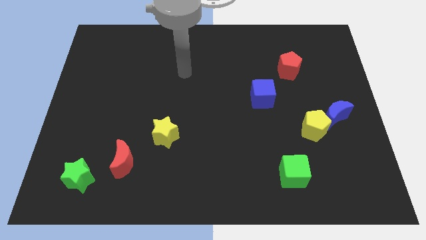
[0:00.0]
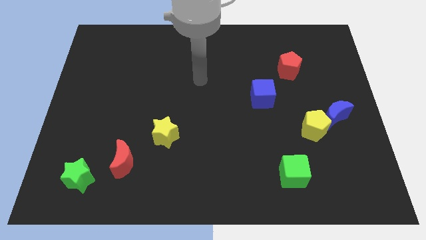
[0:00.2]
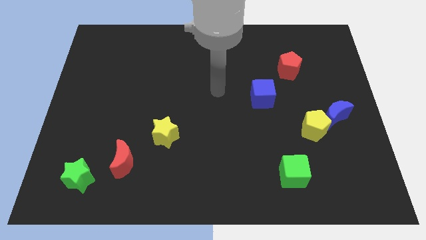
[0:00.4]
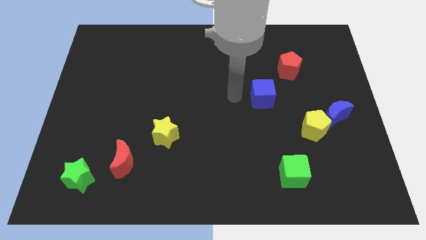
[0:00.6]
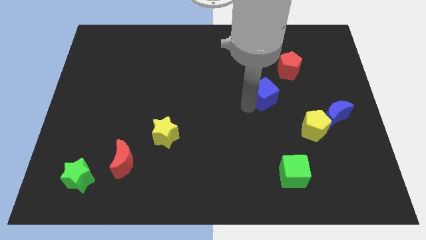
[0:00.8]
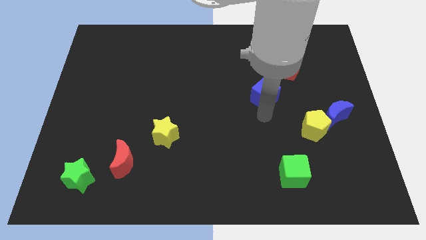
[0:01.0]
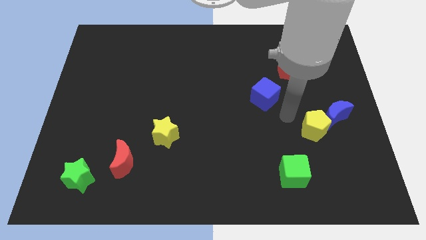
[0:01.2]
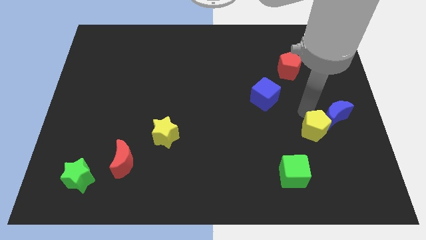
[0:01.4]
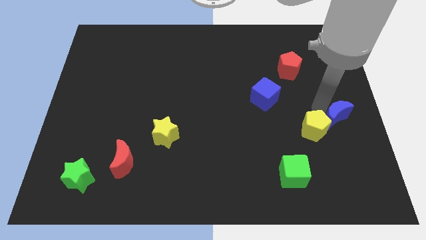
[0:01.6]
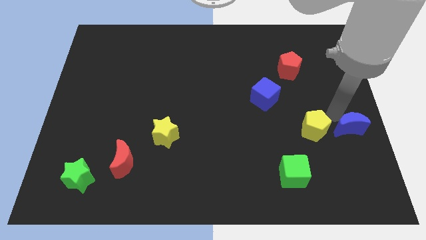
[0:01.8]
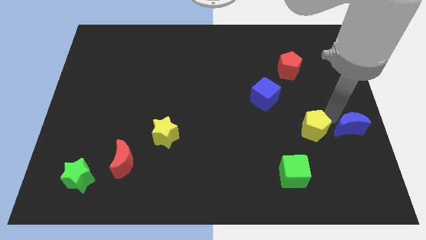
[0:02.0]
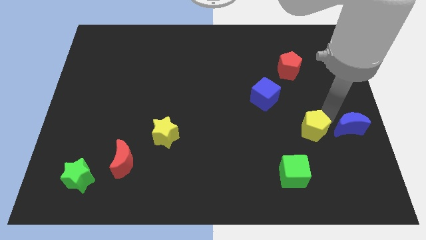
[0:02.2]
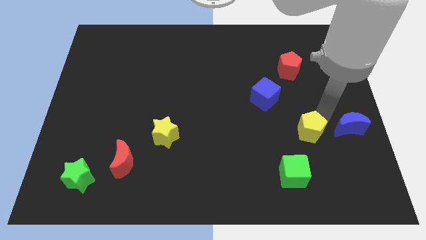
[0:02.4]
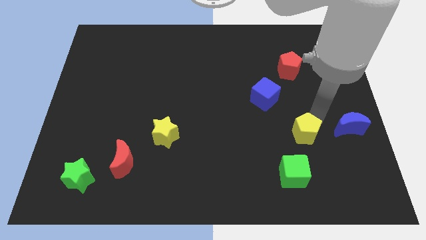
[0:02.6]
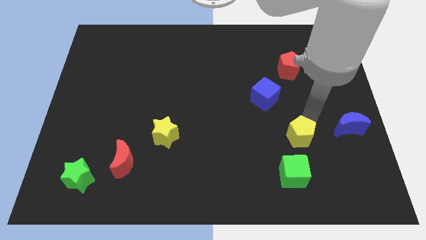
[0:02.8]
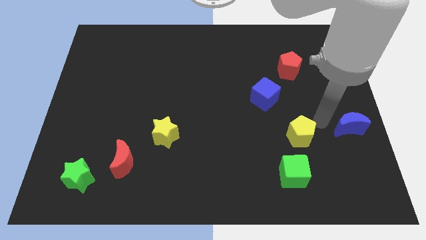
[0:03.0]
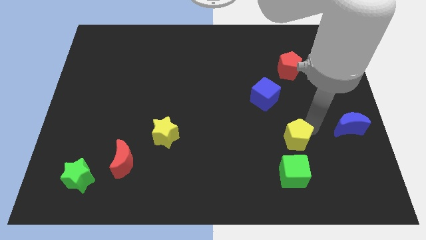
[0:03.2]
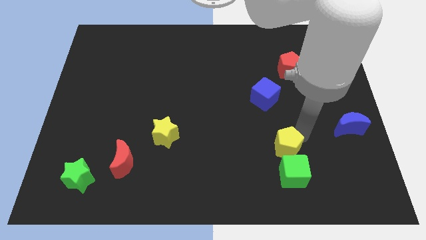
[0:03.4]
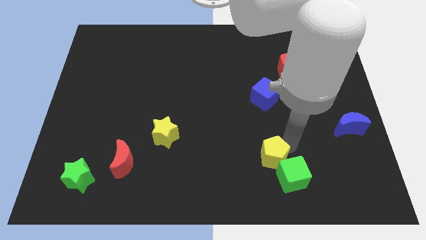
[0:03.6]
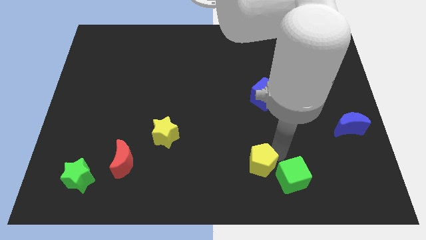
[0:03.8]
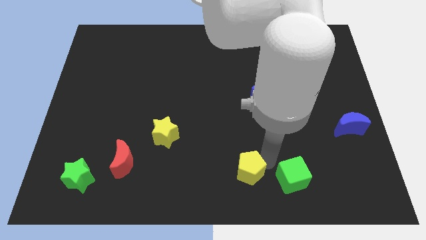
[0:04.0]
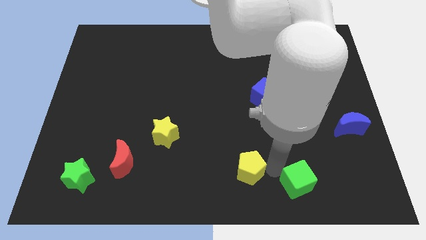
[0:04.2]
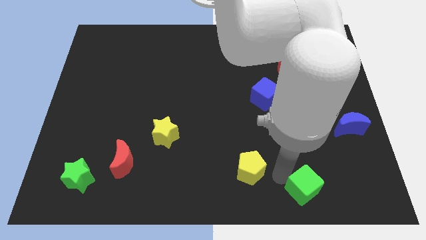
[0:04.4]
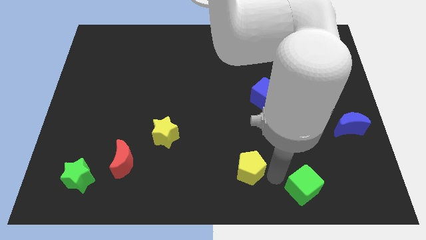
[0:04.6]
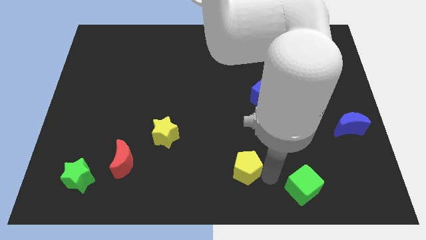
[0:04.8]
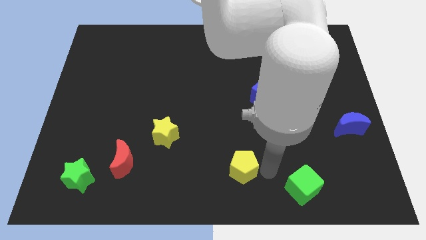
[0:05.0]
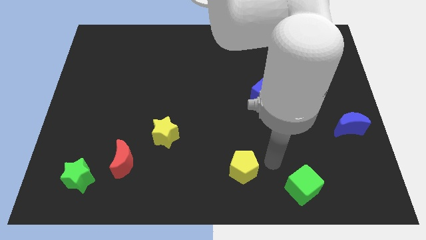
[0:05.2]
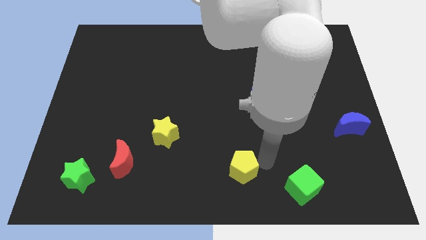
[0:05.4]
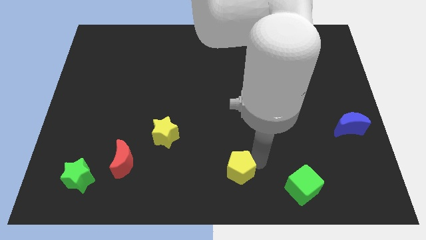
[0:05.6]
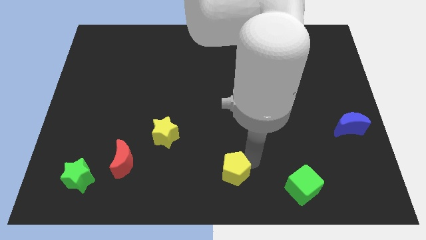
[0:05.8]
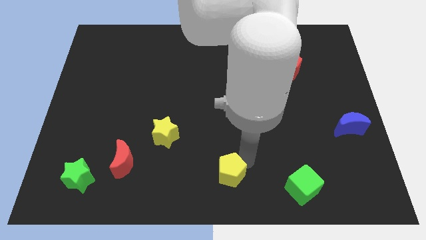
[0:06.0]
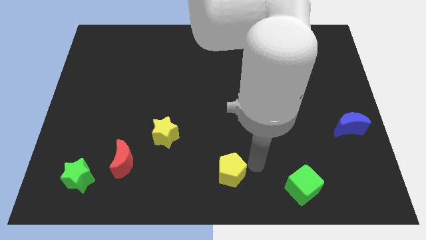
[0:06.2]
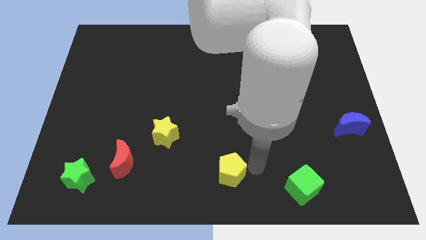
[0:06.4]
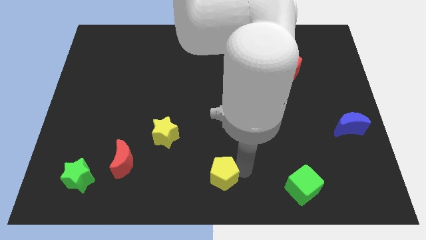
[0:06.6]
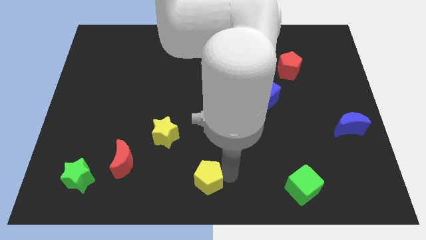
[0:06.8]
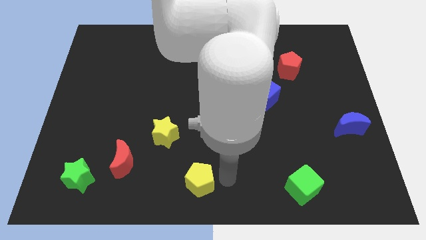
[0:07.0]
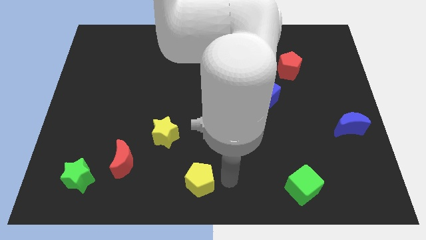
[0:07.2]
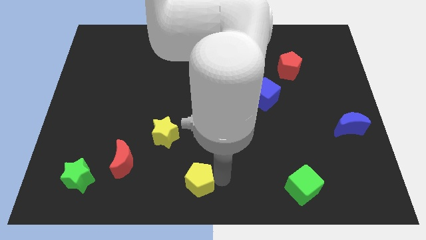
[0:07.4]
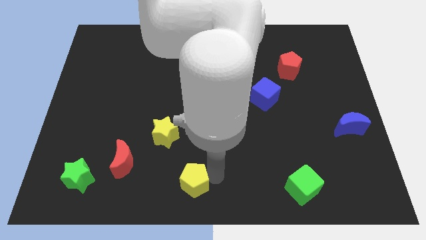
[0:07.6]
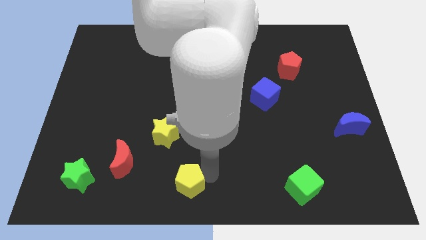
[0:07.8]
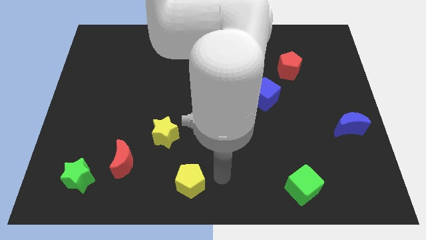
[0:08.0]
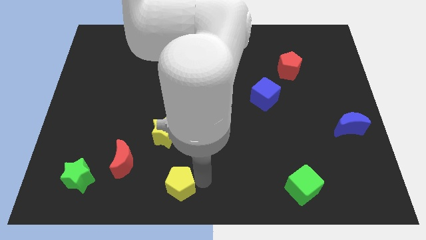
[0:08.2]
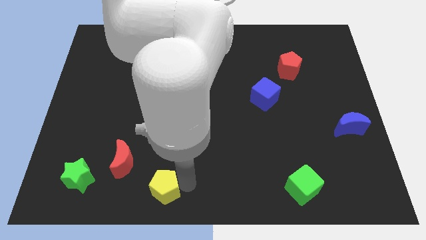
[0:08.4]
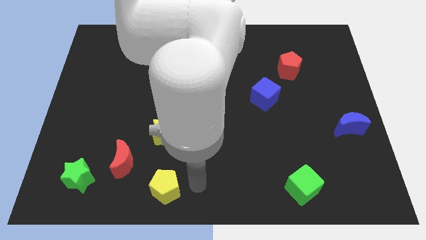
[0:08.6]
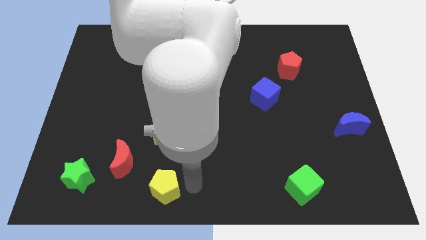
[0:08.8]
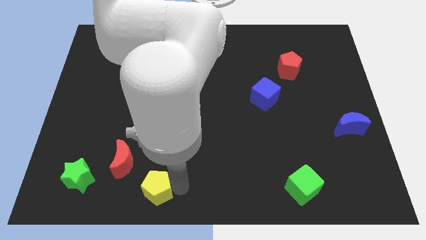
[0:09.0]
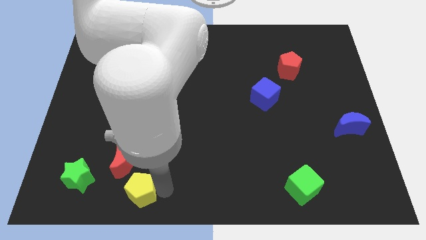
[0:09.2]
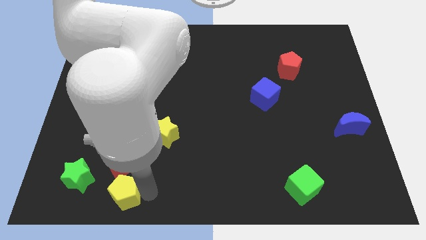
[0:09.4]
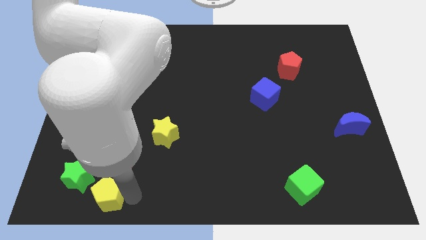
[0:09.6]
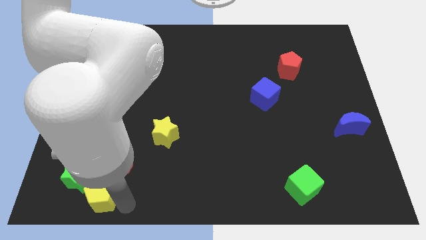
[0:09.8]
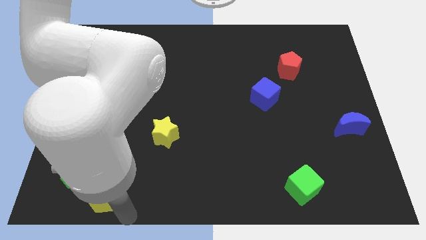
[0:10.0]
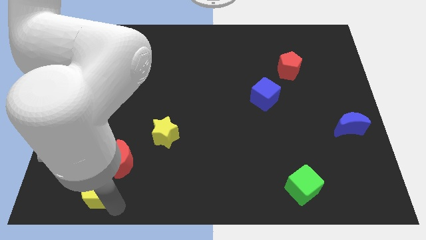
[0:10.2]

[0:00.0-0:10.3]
put the yellow pentagon next to the green star

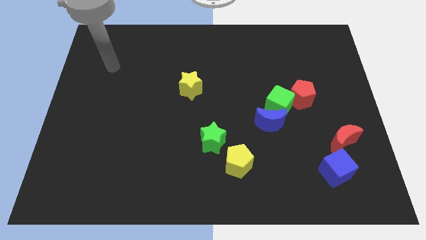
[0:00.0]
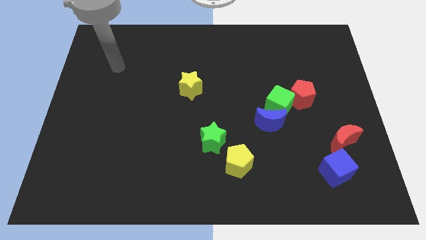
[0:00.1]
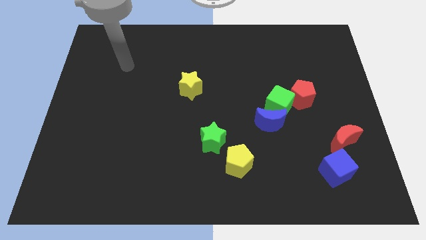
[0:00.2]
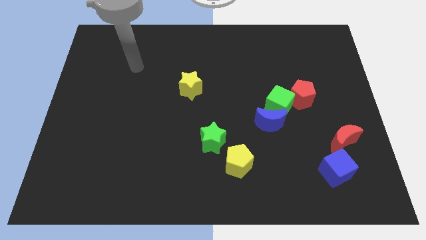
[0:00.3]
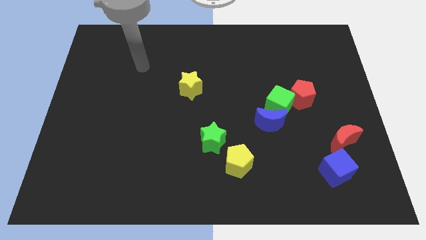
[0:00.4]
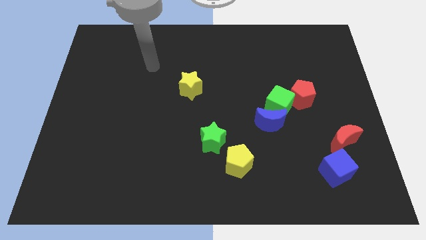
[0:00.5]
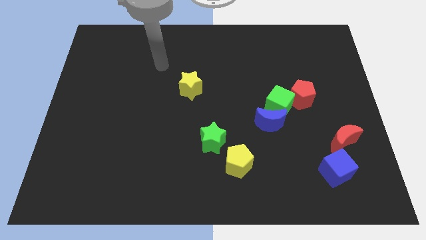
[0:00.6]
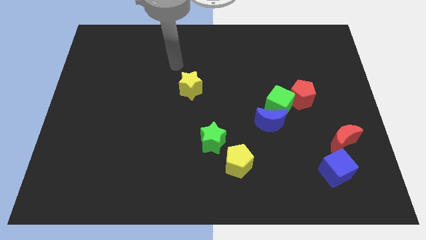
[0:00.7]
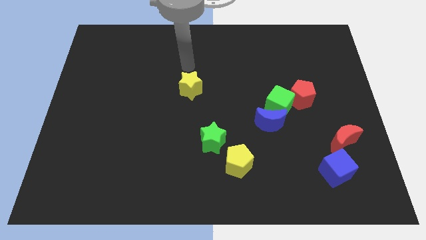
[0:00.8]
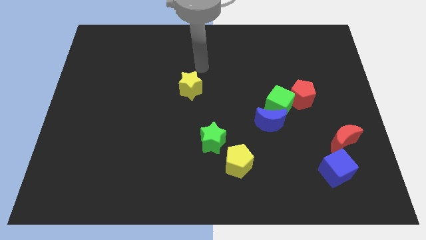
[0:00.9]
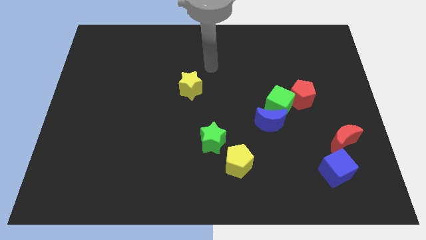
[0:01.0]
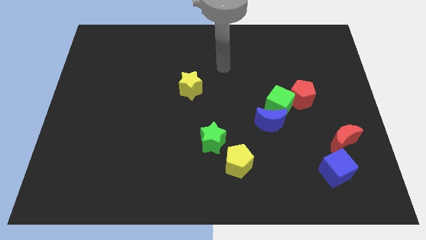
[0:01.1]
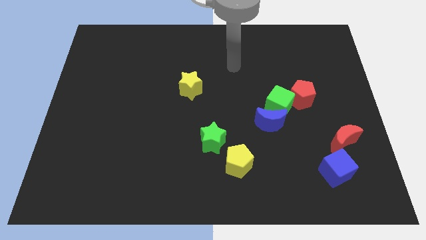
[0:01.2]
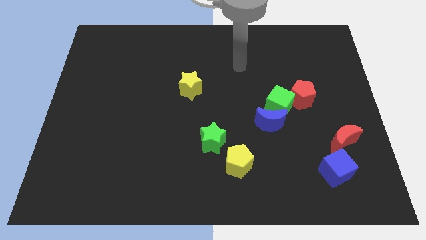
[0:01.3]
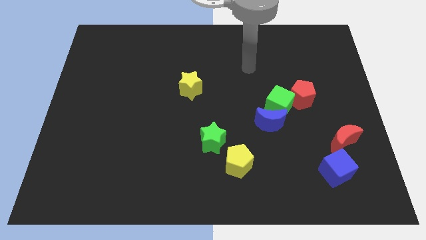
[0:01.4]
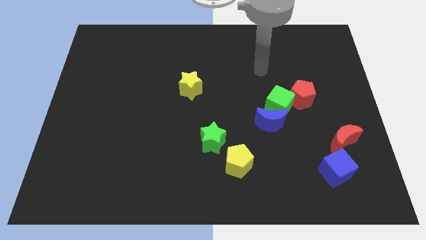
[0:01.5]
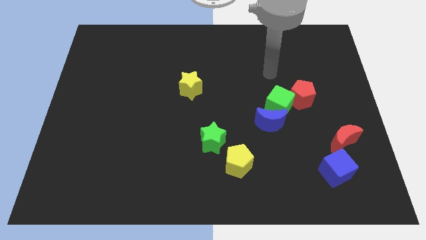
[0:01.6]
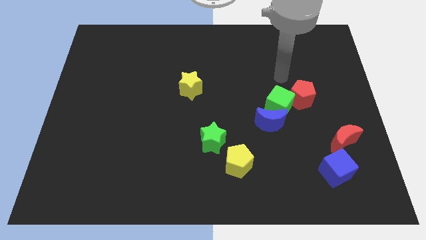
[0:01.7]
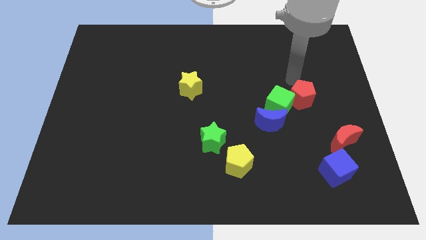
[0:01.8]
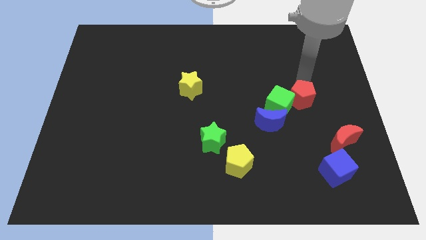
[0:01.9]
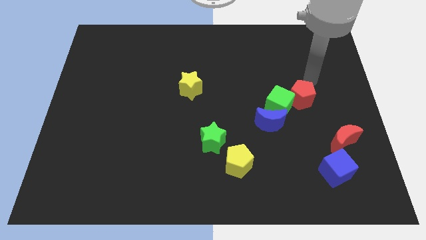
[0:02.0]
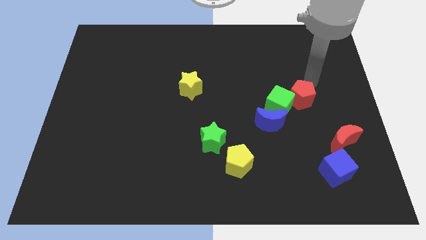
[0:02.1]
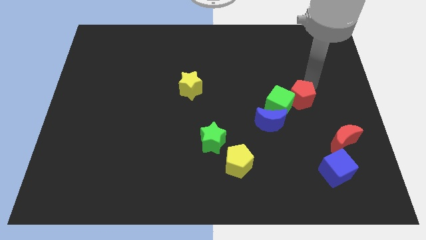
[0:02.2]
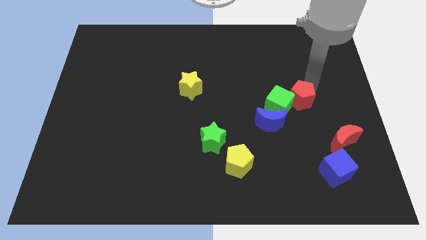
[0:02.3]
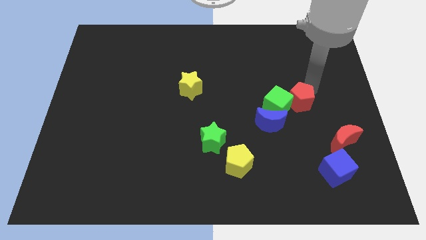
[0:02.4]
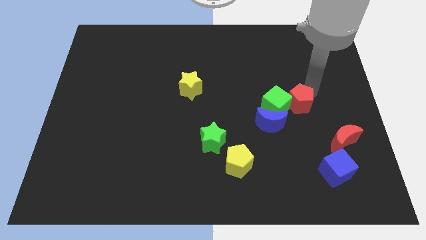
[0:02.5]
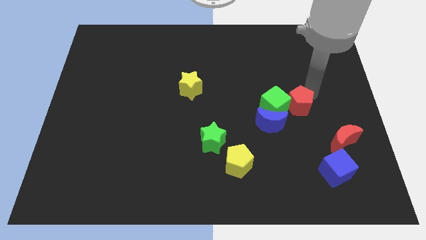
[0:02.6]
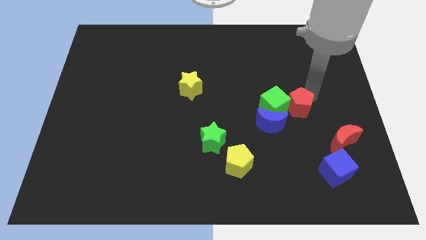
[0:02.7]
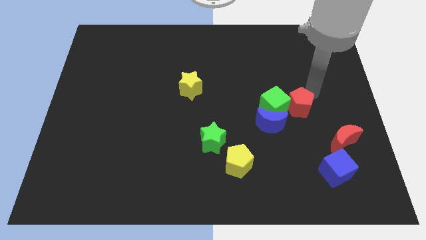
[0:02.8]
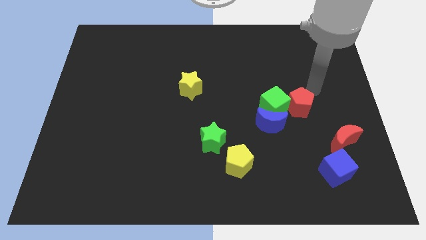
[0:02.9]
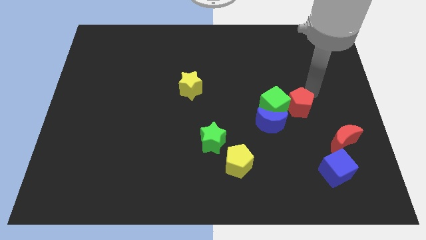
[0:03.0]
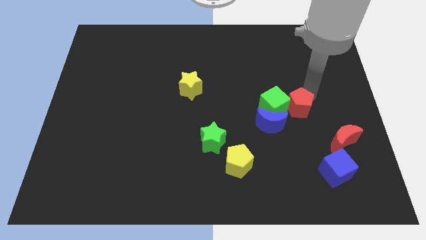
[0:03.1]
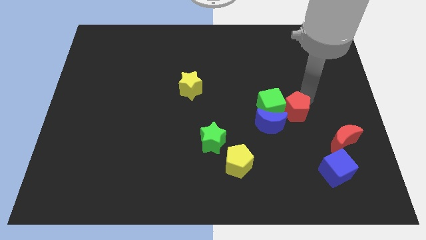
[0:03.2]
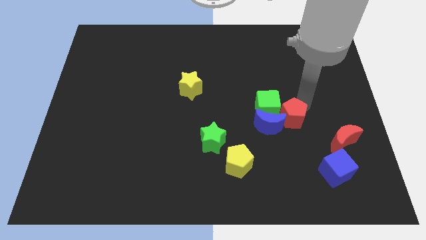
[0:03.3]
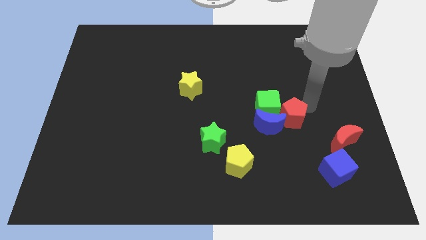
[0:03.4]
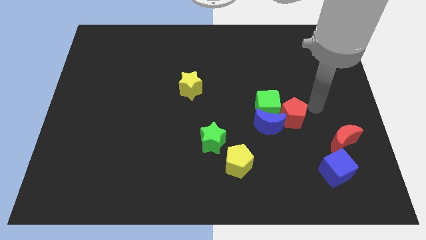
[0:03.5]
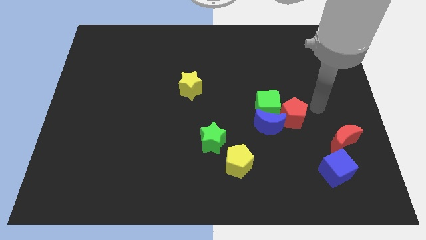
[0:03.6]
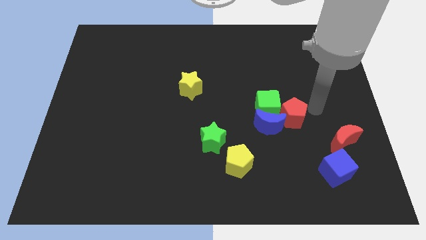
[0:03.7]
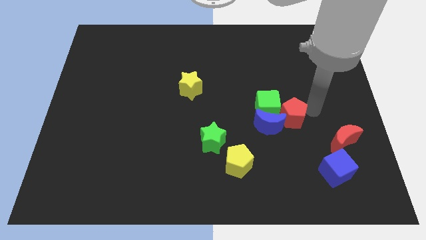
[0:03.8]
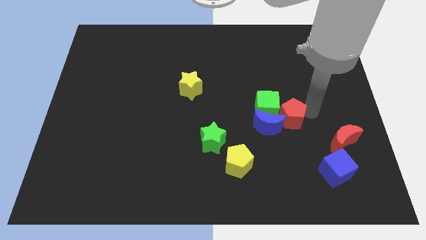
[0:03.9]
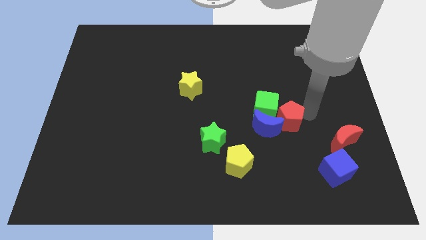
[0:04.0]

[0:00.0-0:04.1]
push the red pentagon towards the blue moon
